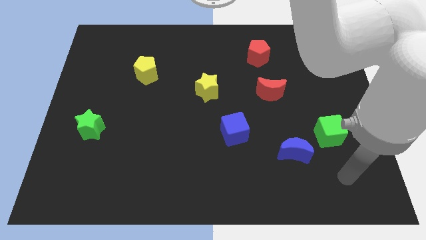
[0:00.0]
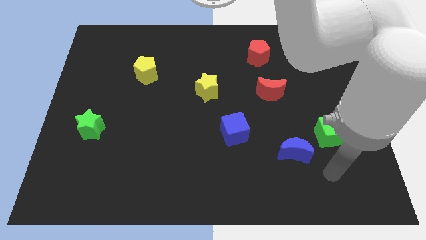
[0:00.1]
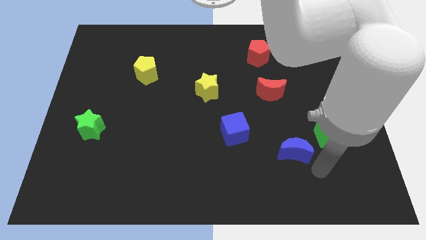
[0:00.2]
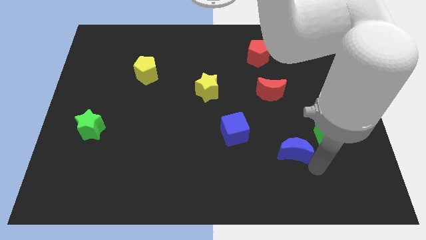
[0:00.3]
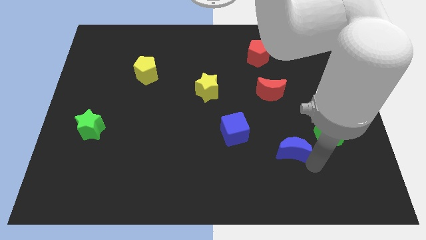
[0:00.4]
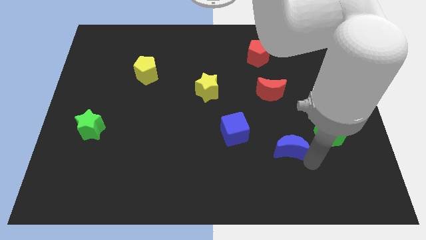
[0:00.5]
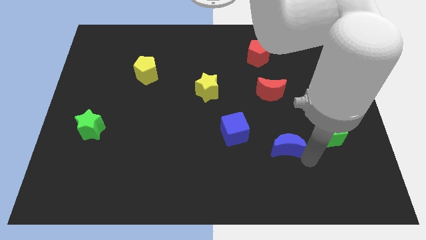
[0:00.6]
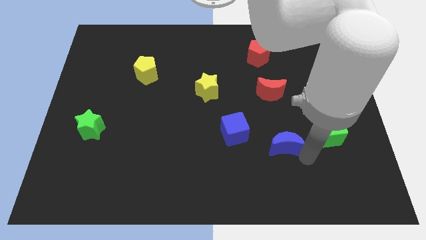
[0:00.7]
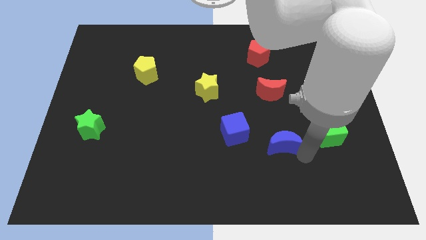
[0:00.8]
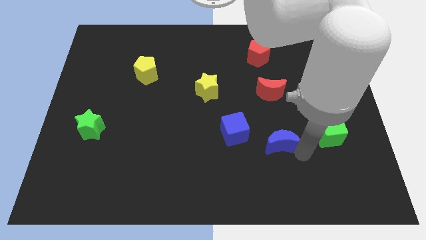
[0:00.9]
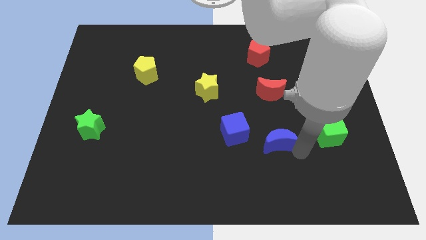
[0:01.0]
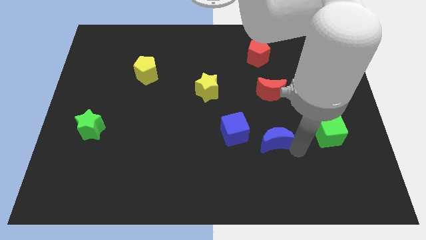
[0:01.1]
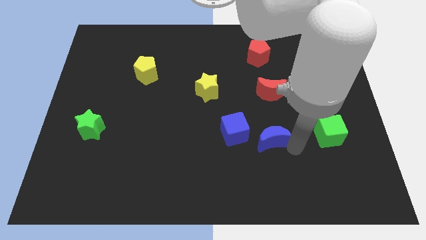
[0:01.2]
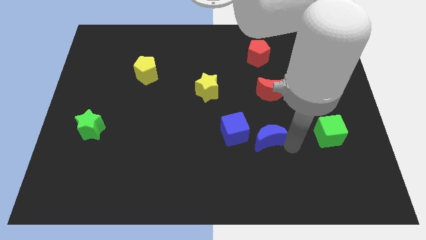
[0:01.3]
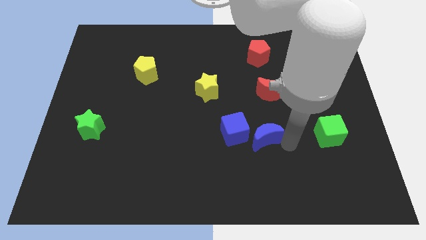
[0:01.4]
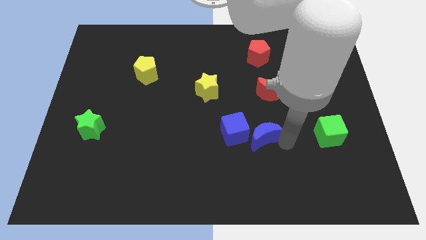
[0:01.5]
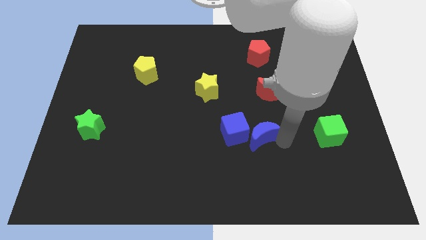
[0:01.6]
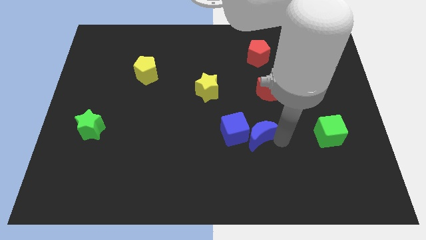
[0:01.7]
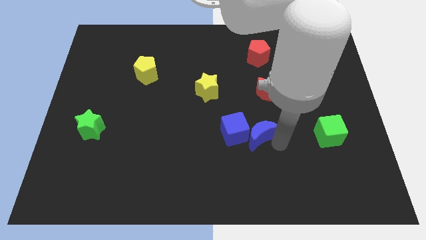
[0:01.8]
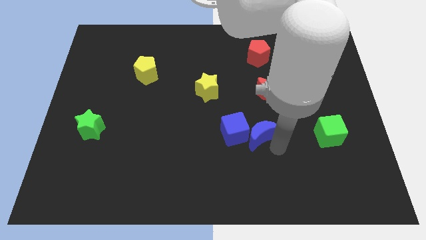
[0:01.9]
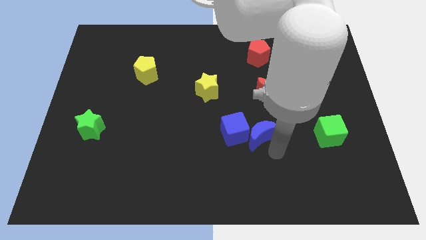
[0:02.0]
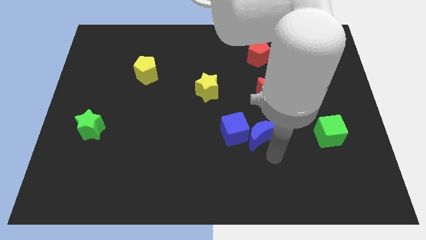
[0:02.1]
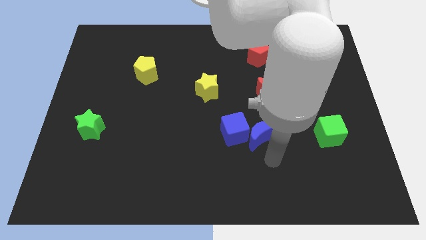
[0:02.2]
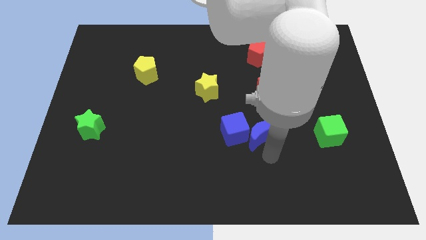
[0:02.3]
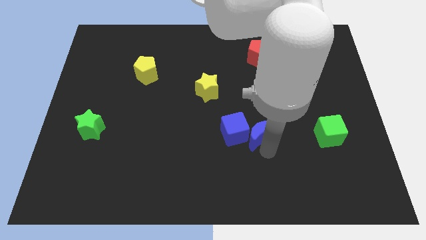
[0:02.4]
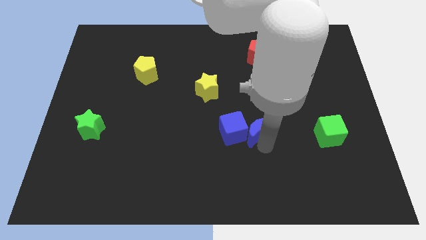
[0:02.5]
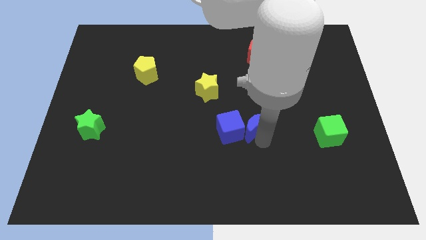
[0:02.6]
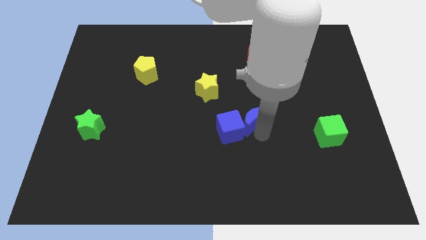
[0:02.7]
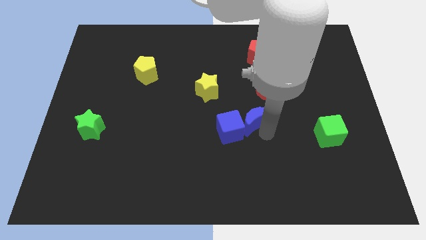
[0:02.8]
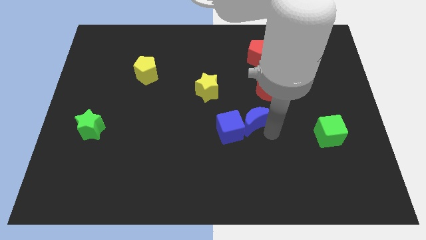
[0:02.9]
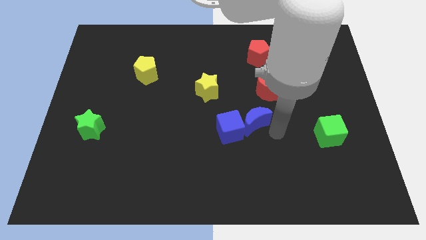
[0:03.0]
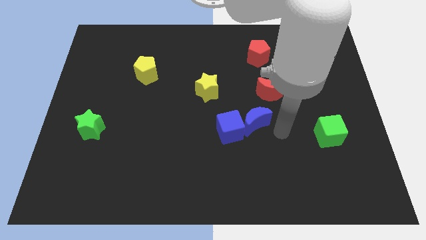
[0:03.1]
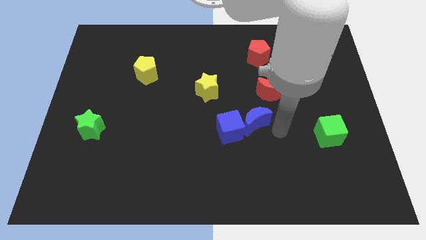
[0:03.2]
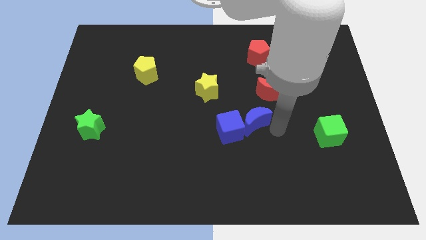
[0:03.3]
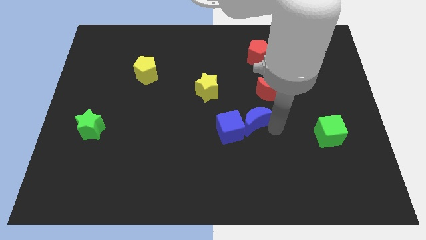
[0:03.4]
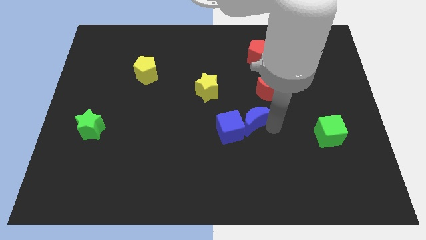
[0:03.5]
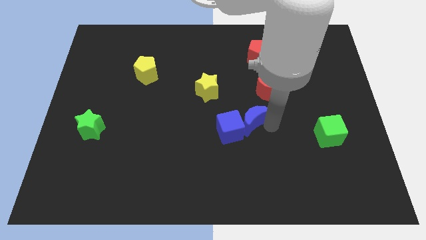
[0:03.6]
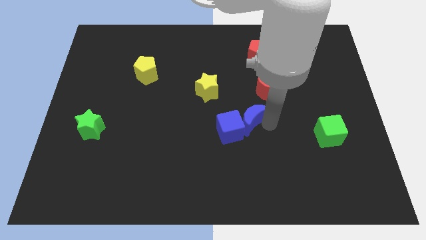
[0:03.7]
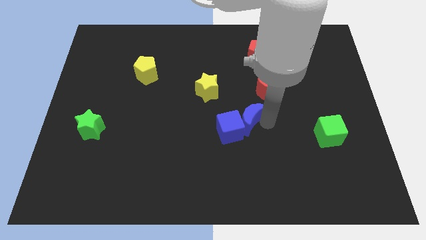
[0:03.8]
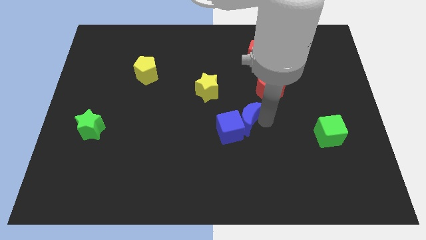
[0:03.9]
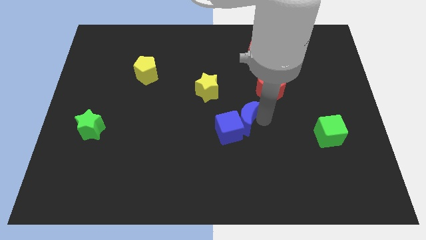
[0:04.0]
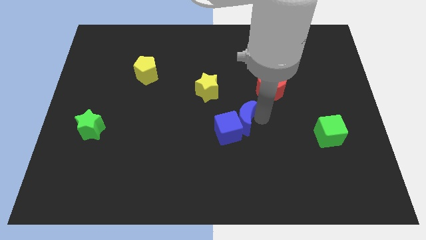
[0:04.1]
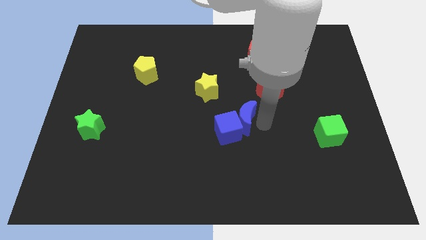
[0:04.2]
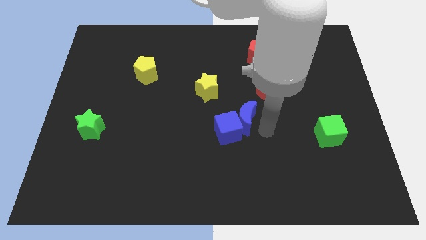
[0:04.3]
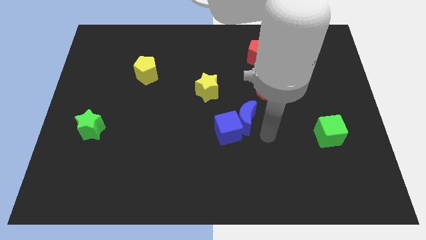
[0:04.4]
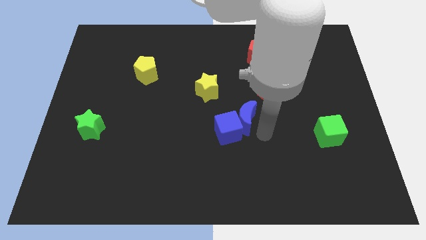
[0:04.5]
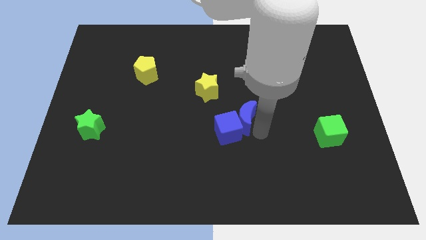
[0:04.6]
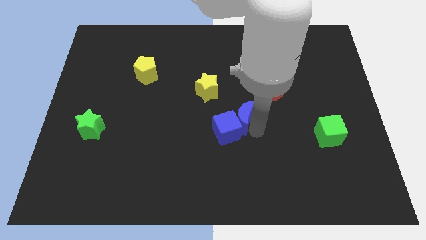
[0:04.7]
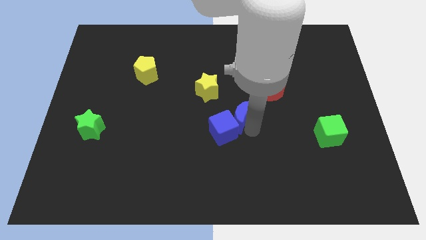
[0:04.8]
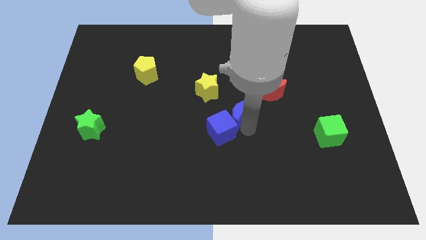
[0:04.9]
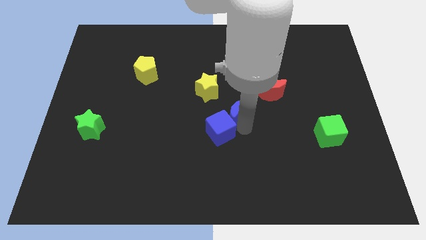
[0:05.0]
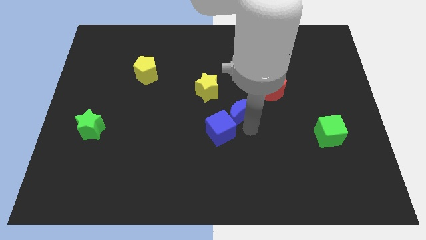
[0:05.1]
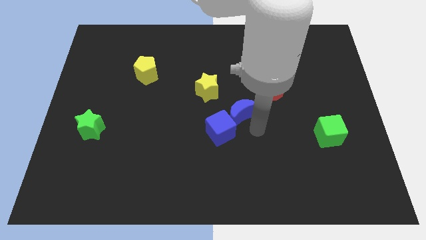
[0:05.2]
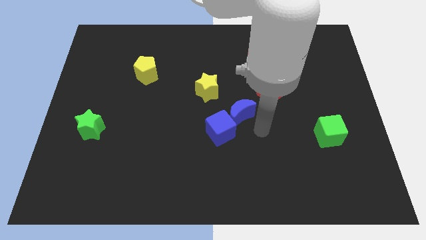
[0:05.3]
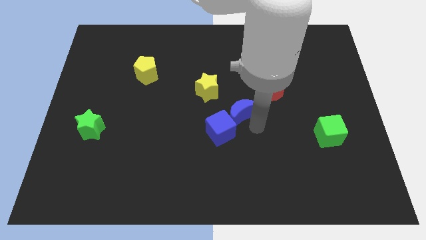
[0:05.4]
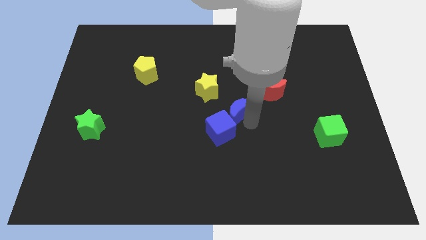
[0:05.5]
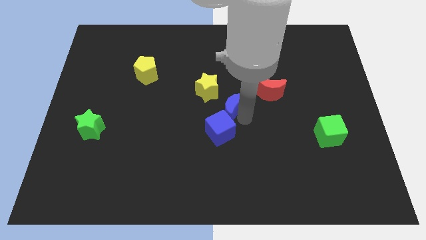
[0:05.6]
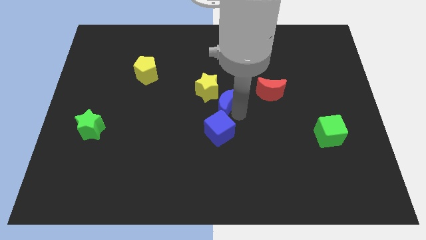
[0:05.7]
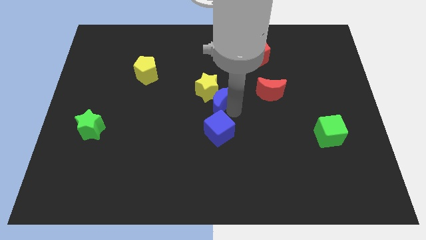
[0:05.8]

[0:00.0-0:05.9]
slide the blue moon next to the yellow star

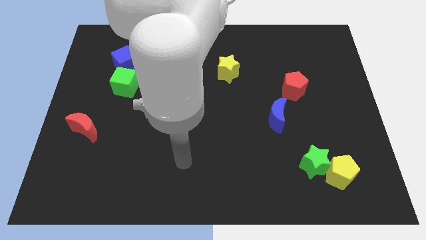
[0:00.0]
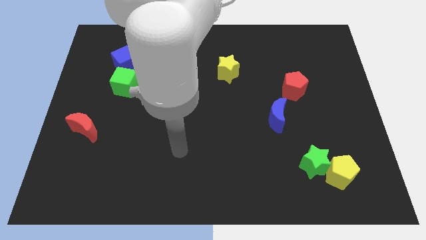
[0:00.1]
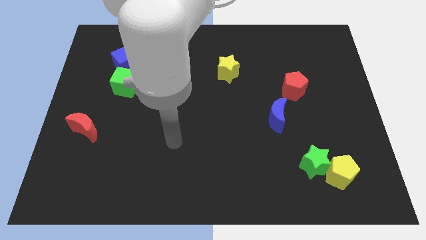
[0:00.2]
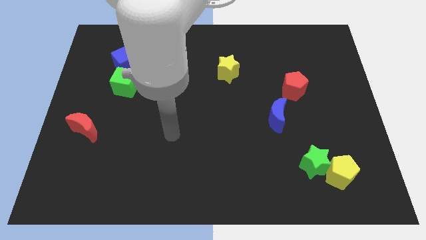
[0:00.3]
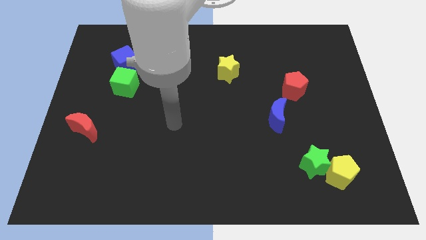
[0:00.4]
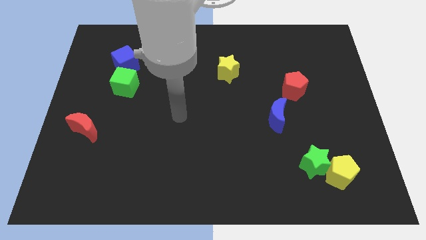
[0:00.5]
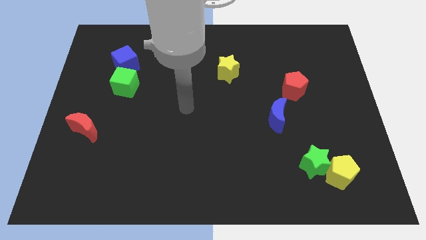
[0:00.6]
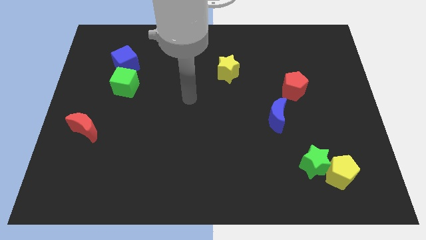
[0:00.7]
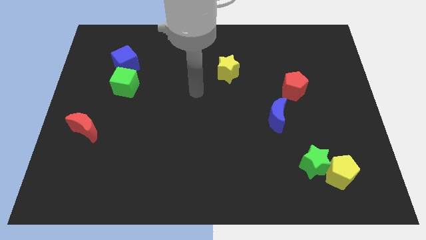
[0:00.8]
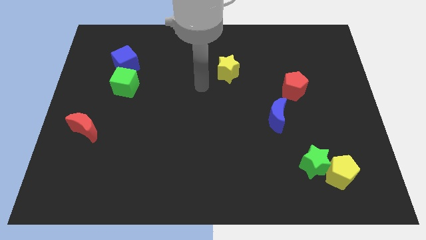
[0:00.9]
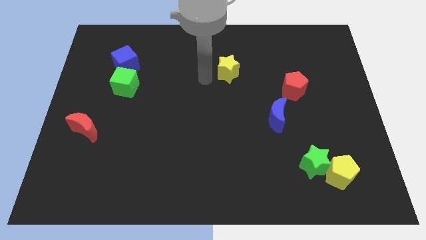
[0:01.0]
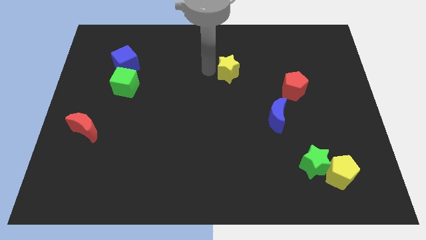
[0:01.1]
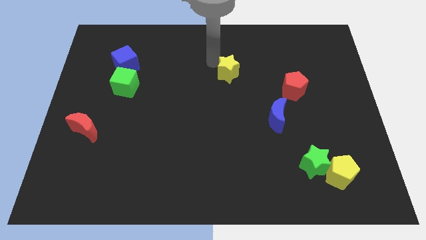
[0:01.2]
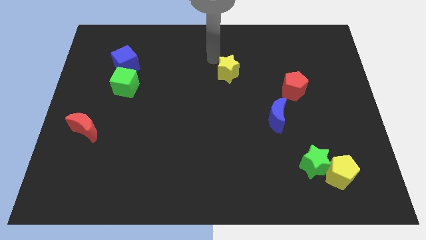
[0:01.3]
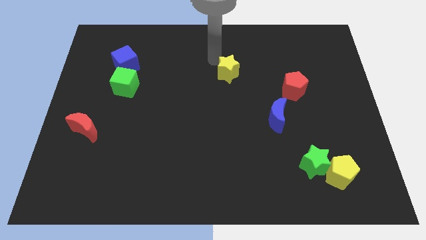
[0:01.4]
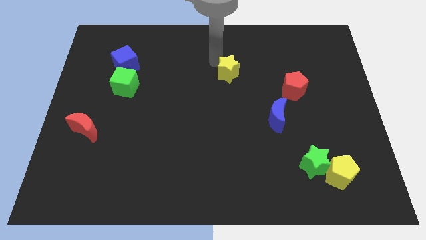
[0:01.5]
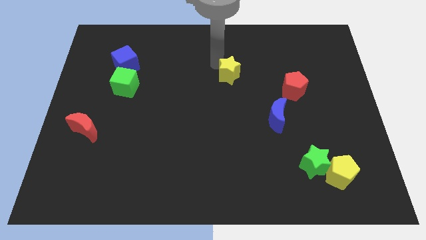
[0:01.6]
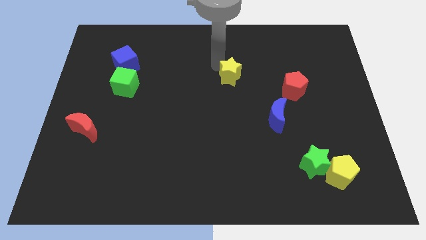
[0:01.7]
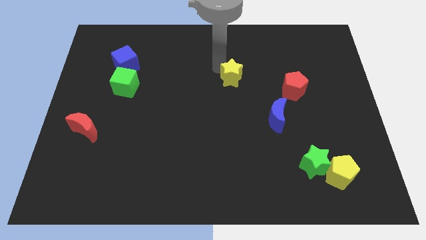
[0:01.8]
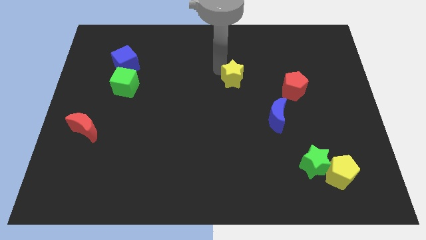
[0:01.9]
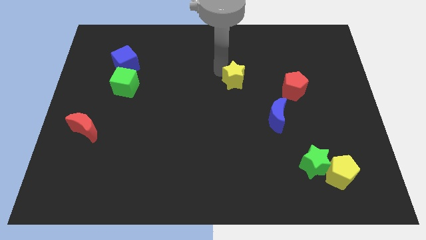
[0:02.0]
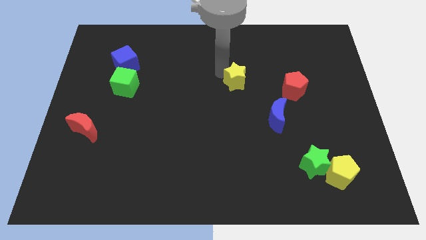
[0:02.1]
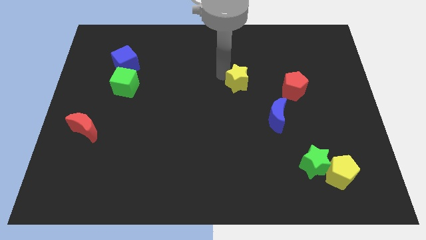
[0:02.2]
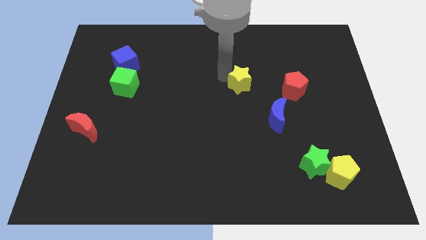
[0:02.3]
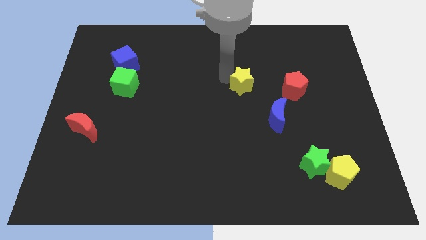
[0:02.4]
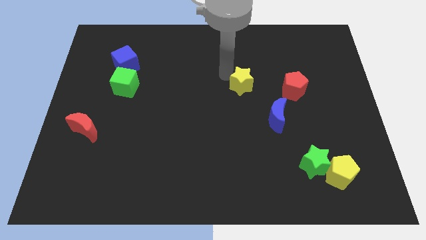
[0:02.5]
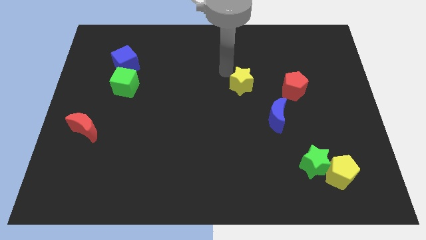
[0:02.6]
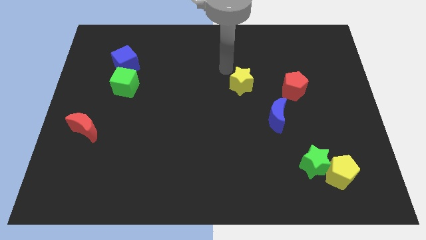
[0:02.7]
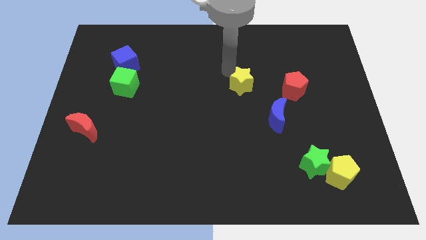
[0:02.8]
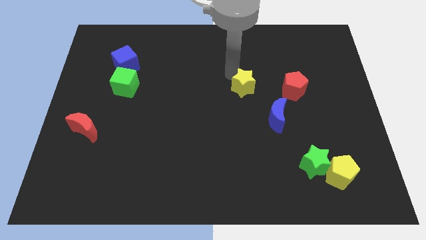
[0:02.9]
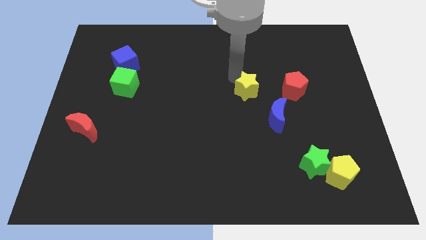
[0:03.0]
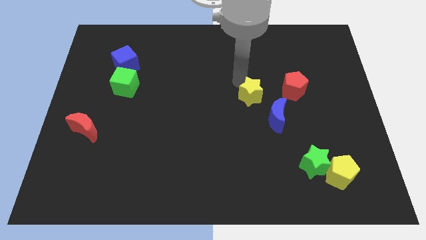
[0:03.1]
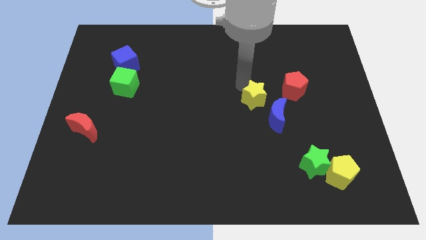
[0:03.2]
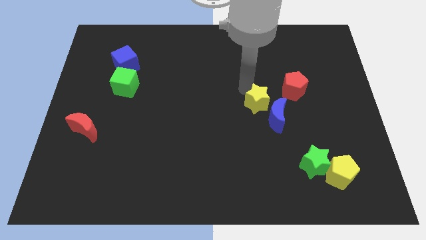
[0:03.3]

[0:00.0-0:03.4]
push the yellow star to the blue moon
